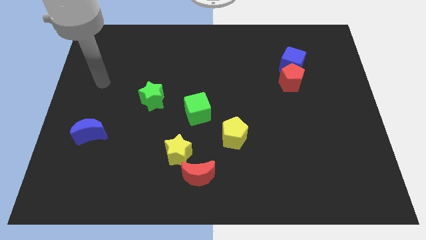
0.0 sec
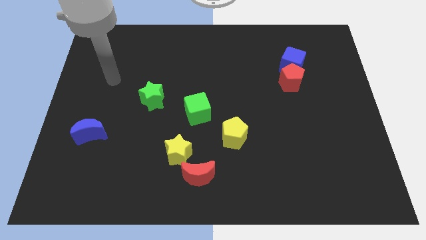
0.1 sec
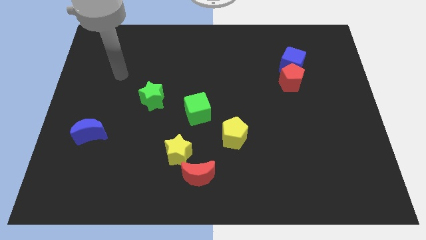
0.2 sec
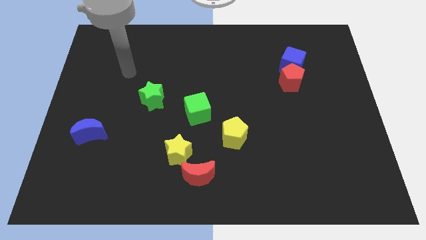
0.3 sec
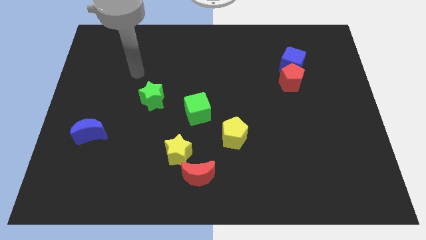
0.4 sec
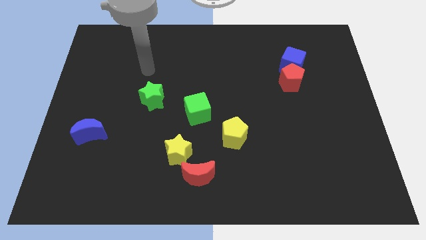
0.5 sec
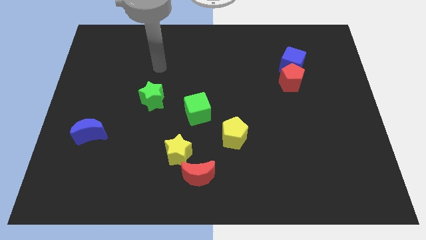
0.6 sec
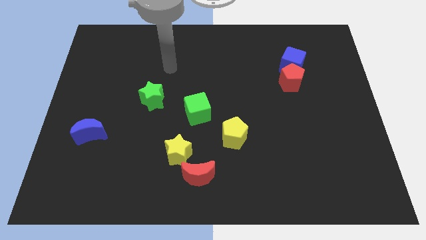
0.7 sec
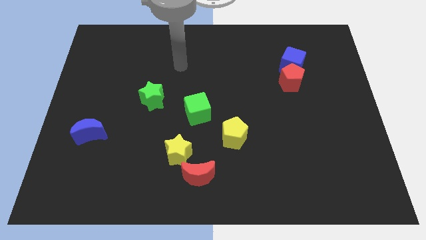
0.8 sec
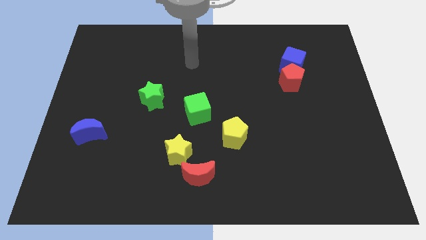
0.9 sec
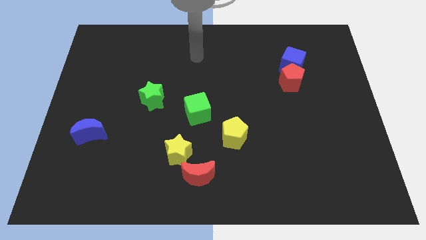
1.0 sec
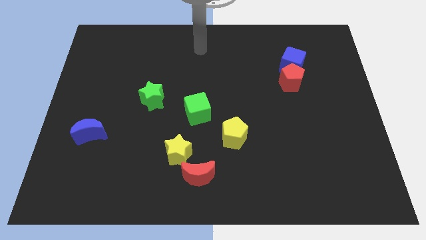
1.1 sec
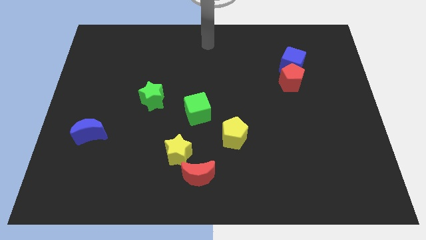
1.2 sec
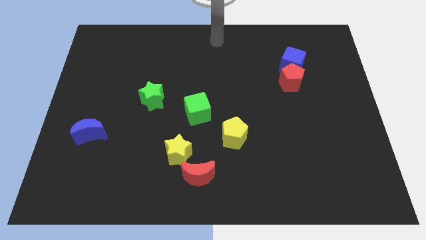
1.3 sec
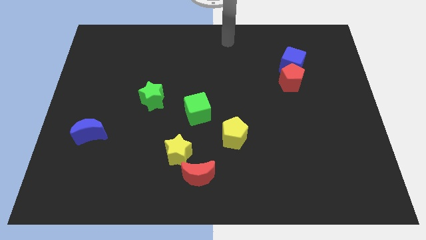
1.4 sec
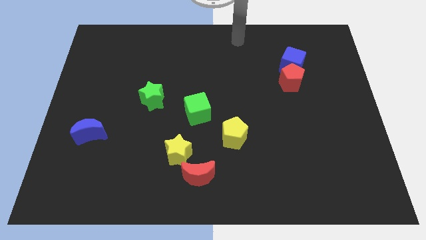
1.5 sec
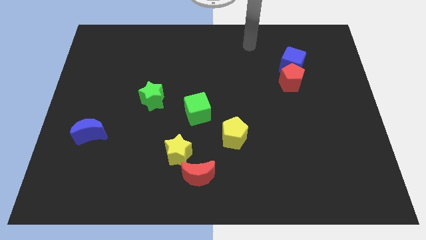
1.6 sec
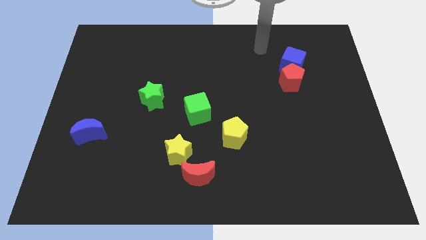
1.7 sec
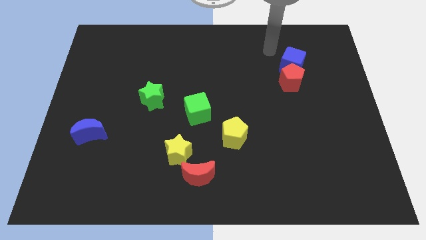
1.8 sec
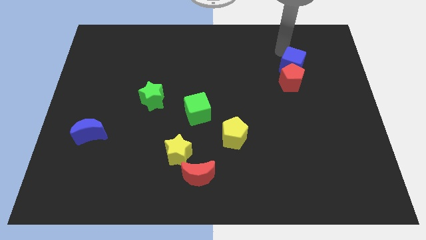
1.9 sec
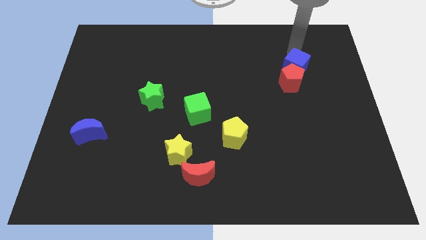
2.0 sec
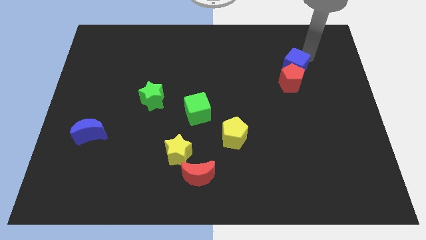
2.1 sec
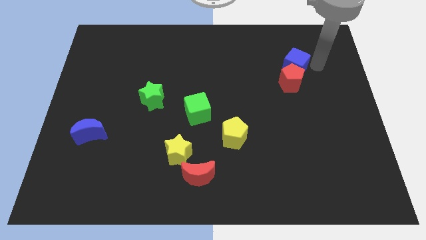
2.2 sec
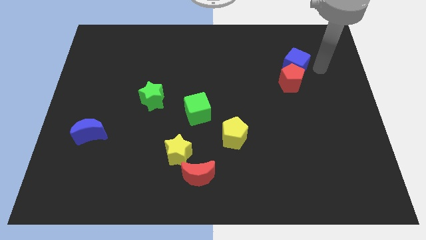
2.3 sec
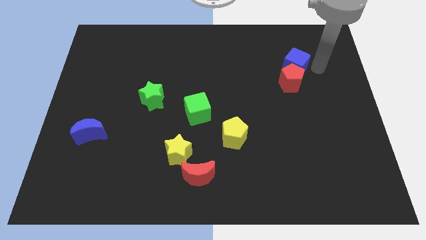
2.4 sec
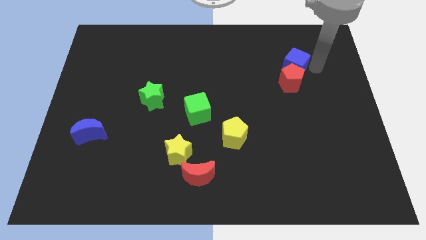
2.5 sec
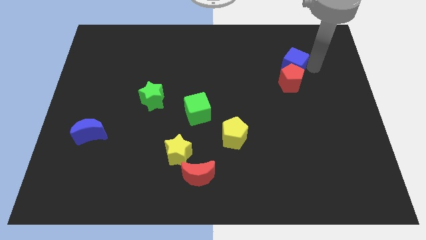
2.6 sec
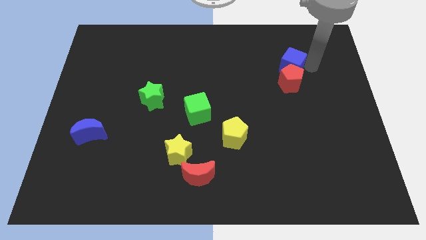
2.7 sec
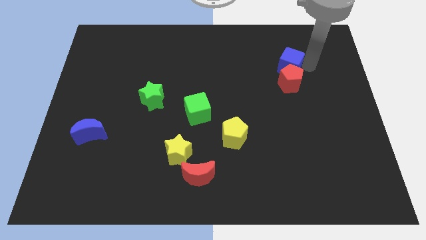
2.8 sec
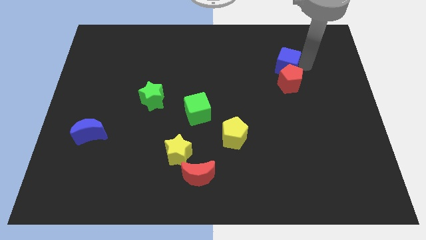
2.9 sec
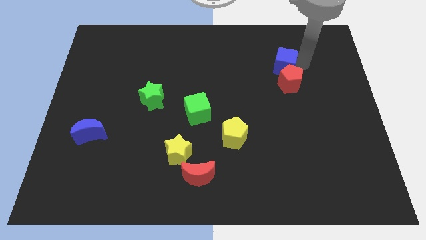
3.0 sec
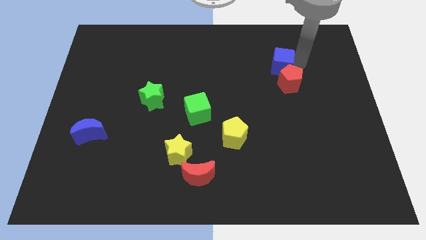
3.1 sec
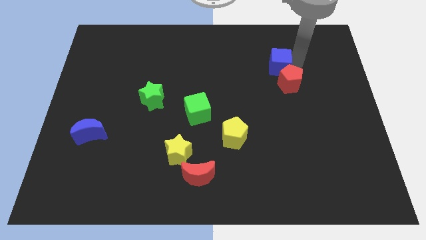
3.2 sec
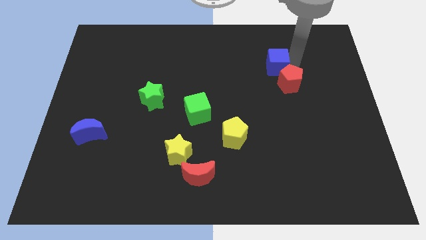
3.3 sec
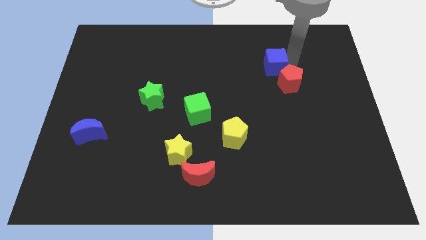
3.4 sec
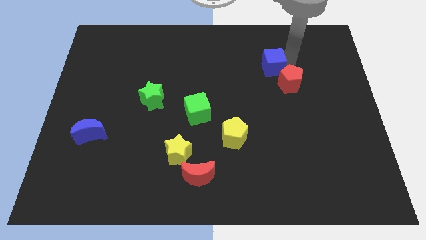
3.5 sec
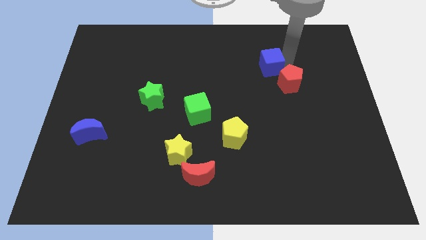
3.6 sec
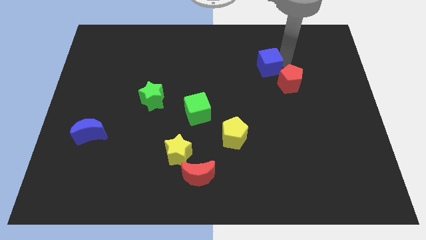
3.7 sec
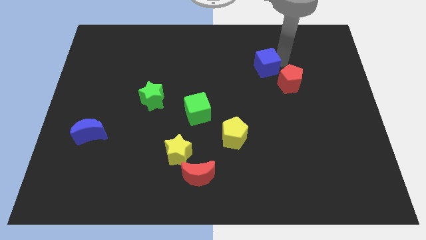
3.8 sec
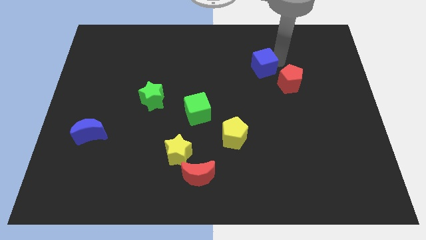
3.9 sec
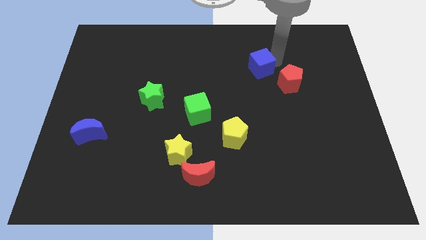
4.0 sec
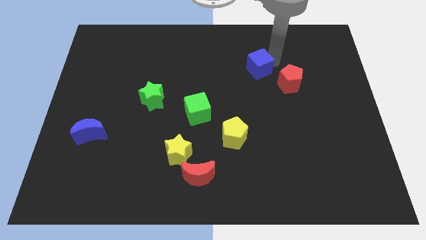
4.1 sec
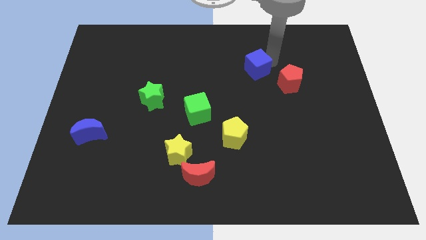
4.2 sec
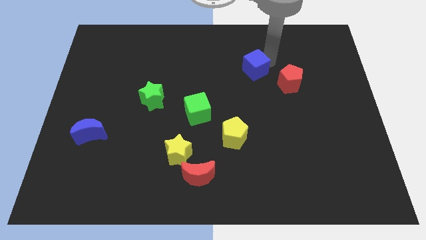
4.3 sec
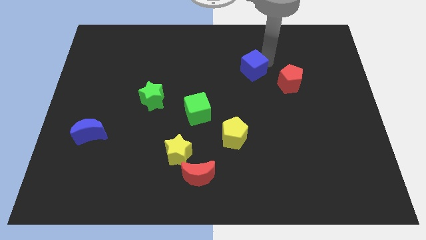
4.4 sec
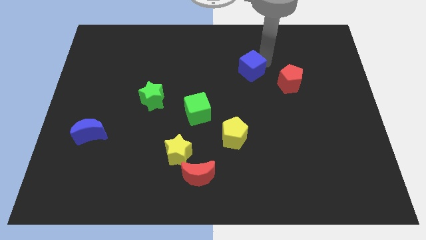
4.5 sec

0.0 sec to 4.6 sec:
slightly push the blue cube down and then to the left

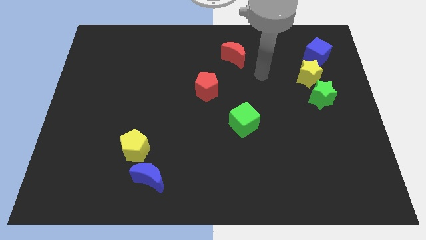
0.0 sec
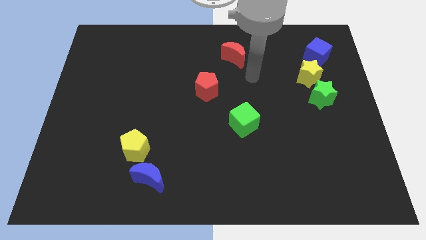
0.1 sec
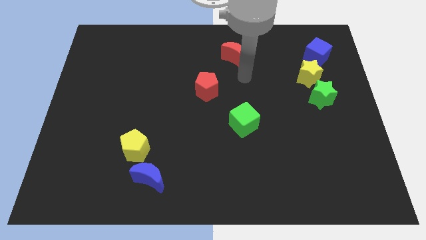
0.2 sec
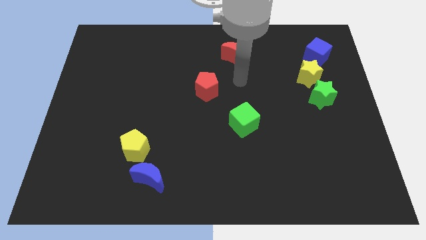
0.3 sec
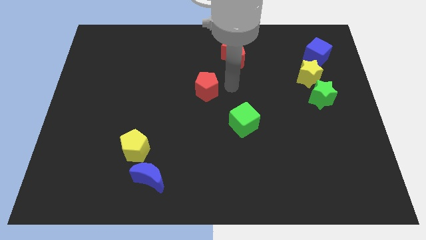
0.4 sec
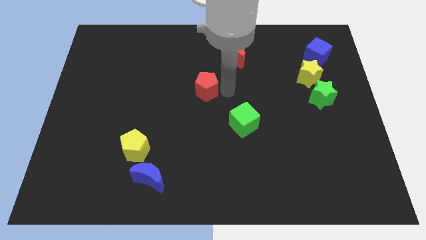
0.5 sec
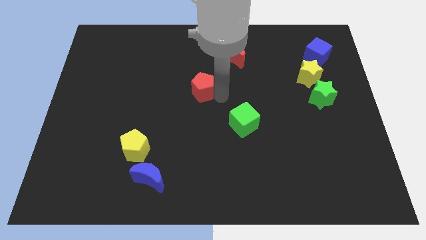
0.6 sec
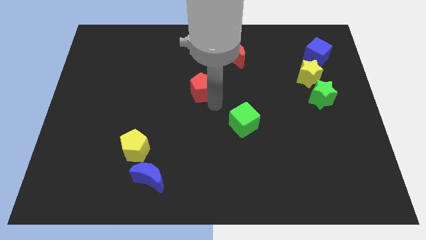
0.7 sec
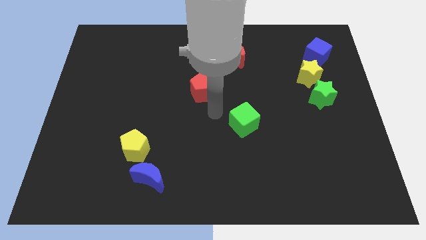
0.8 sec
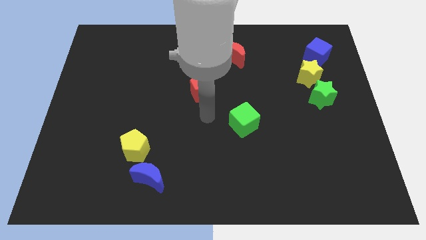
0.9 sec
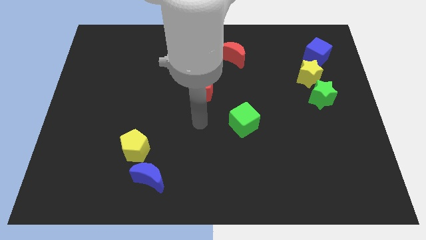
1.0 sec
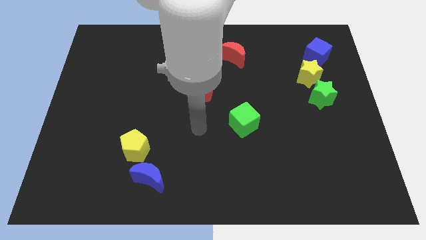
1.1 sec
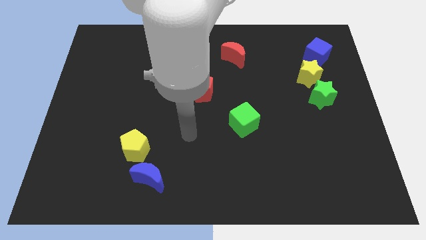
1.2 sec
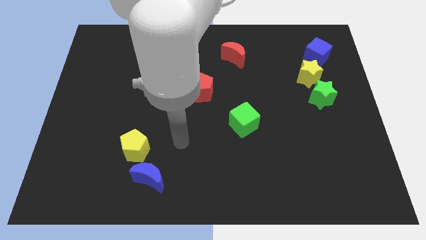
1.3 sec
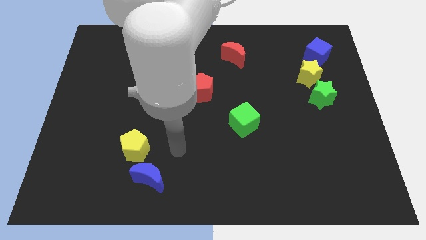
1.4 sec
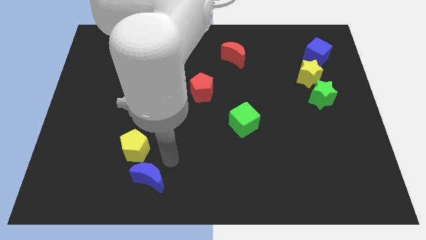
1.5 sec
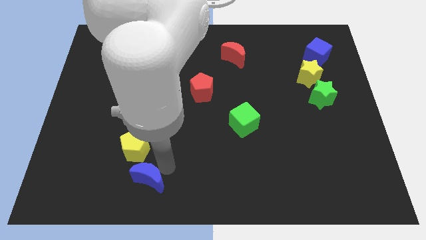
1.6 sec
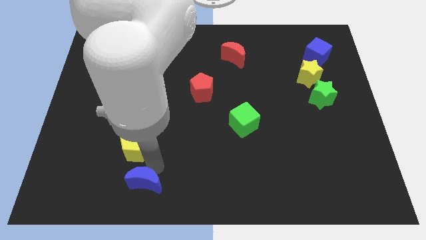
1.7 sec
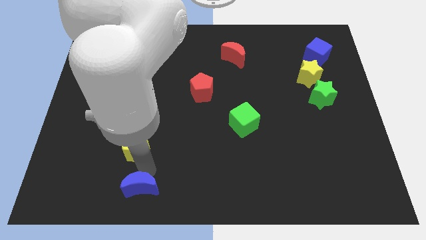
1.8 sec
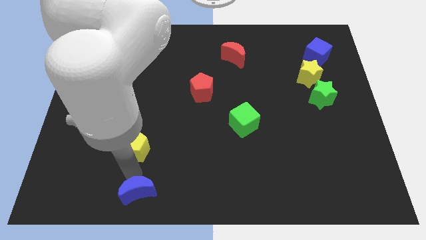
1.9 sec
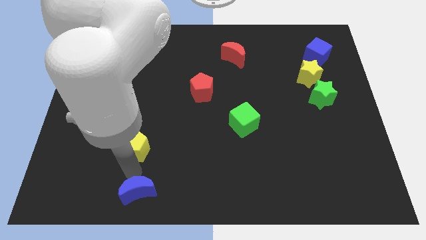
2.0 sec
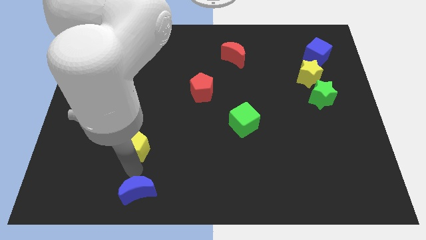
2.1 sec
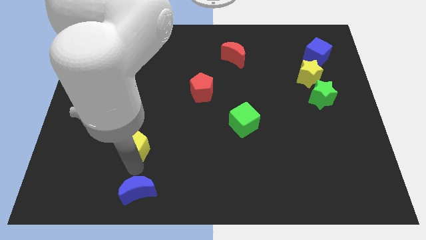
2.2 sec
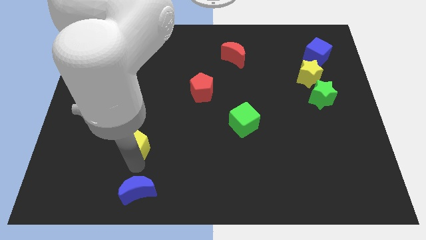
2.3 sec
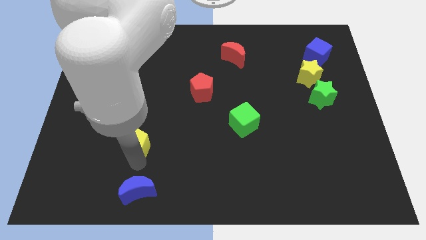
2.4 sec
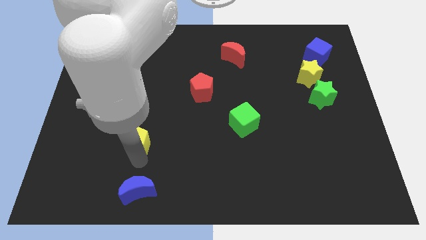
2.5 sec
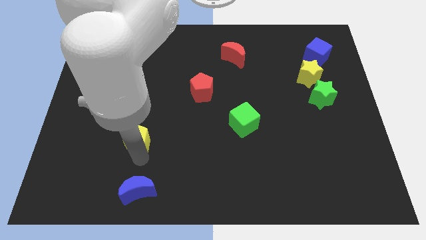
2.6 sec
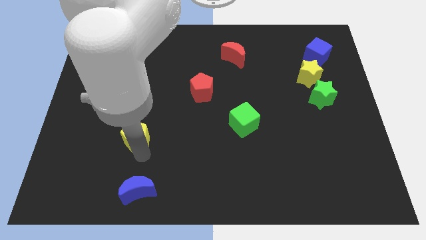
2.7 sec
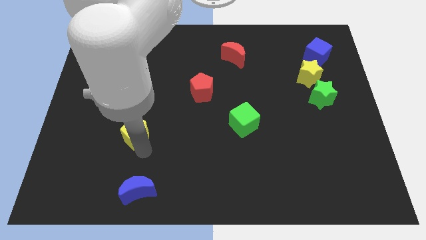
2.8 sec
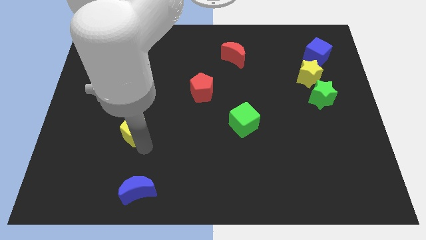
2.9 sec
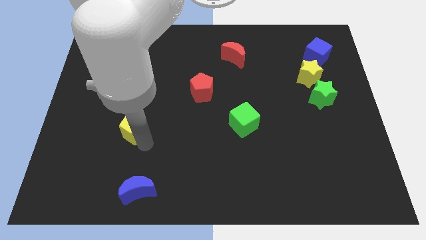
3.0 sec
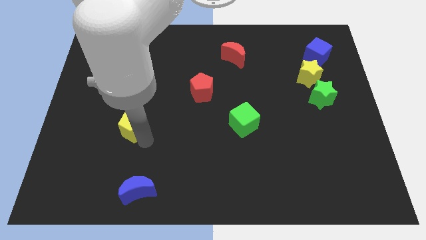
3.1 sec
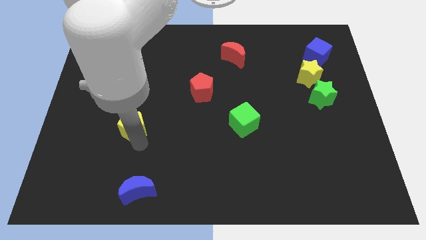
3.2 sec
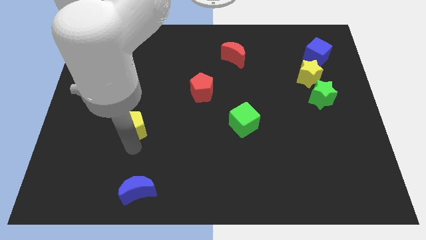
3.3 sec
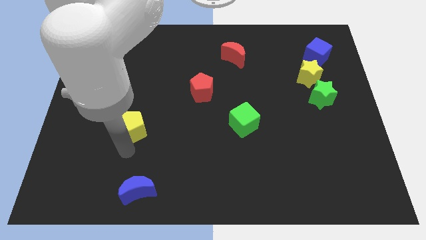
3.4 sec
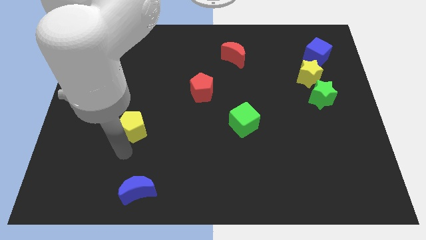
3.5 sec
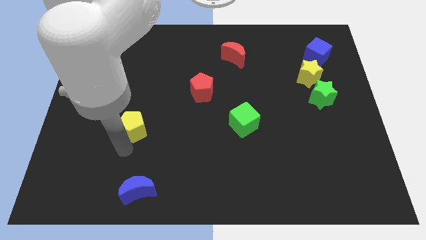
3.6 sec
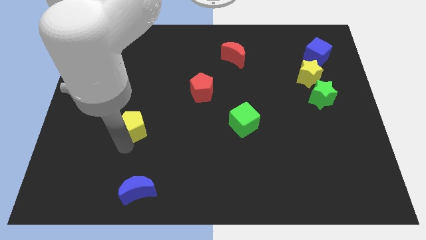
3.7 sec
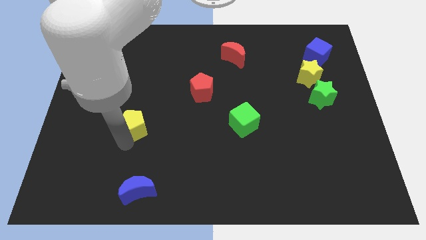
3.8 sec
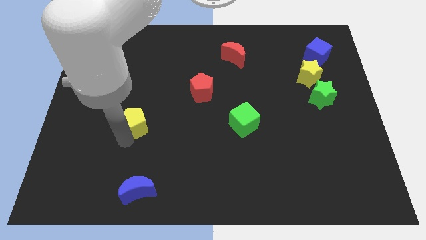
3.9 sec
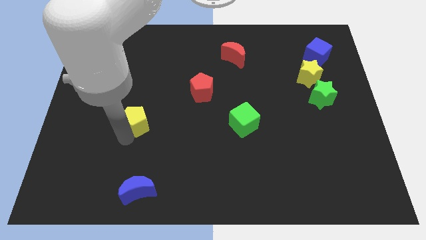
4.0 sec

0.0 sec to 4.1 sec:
move the yellow pentagon up somewhat
